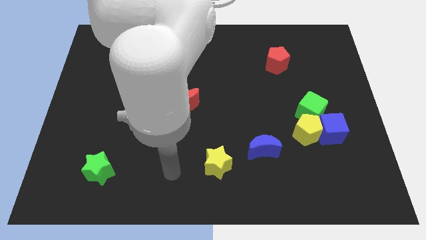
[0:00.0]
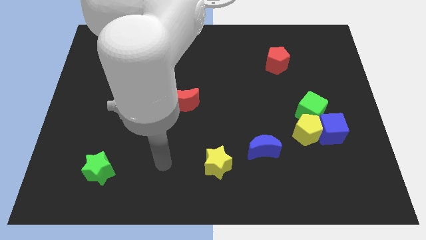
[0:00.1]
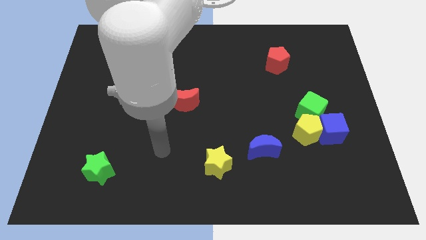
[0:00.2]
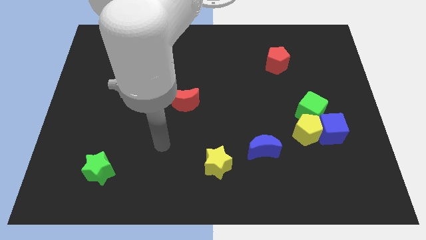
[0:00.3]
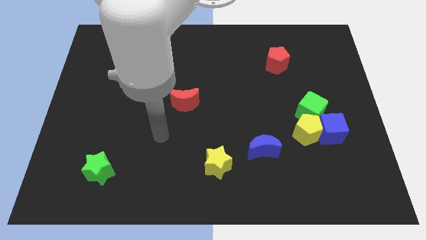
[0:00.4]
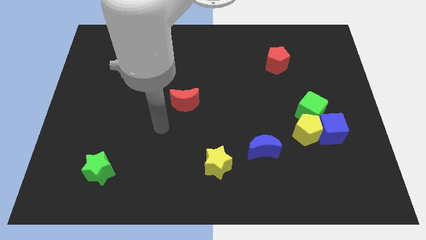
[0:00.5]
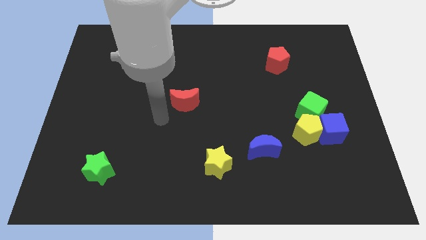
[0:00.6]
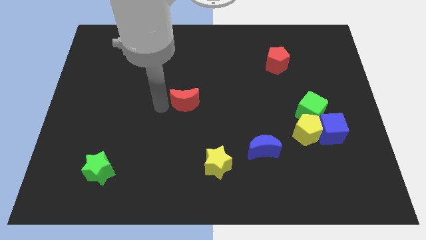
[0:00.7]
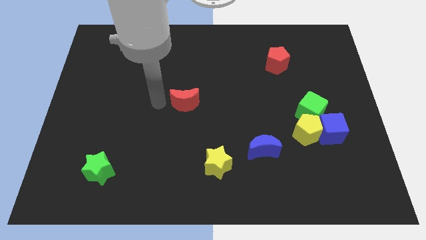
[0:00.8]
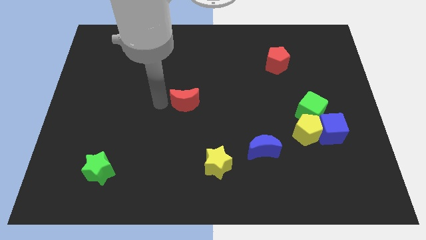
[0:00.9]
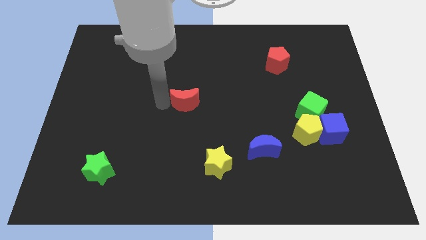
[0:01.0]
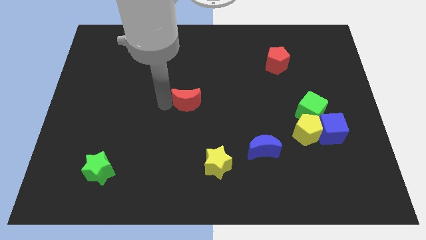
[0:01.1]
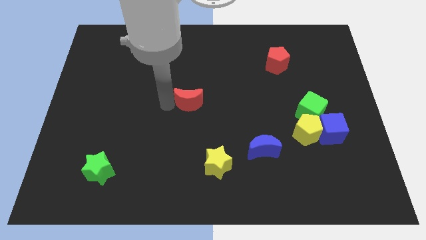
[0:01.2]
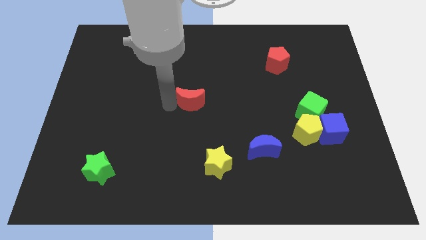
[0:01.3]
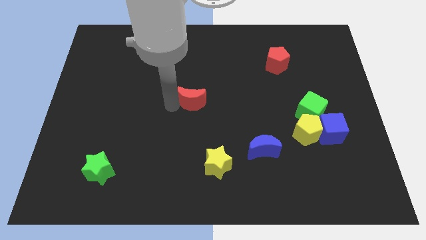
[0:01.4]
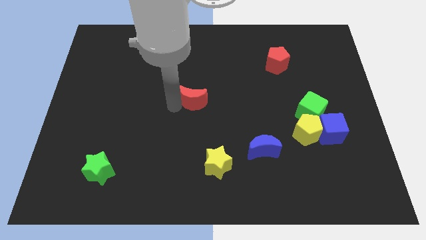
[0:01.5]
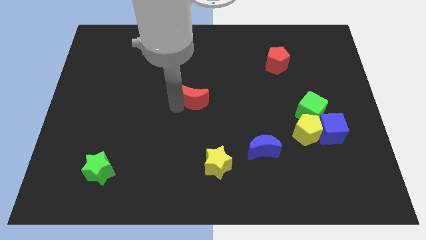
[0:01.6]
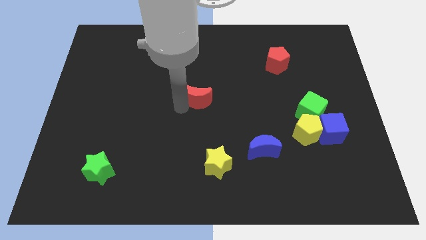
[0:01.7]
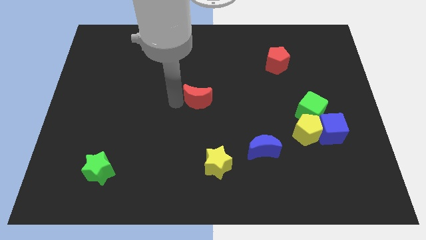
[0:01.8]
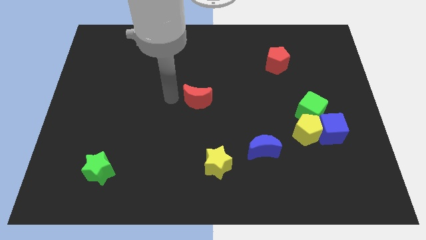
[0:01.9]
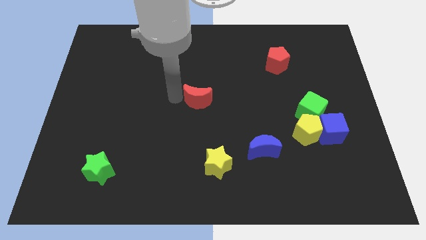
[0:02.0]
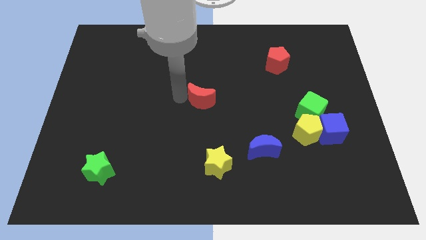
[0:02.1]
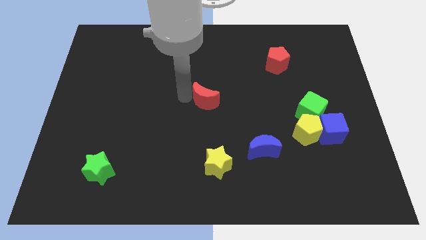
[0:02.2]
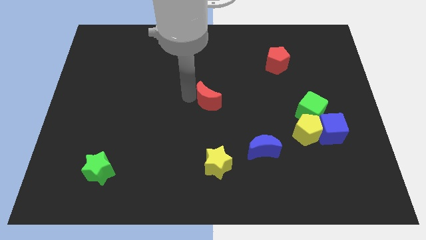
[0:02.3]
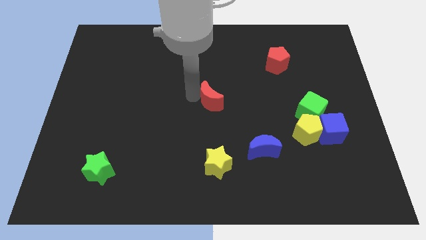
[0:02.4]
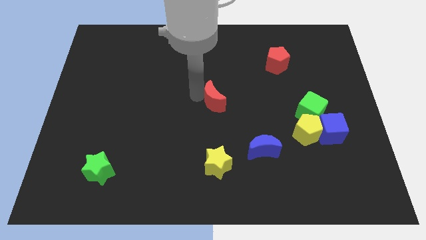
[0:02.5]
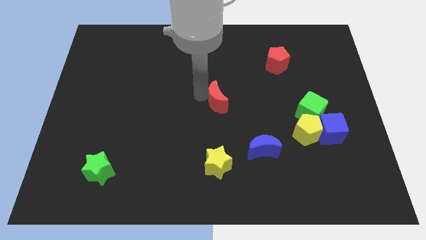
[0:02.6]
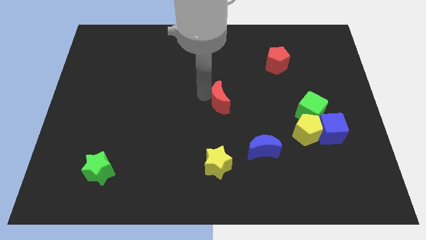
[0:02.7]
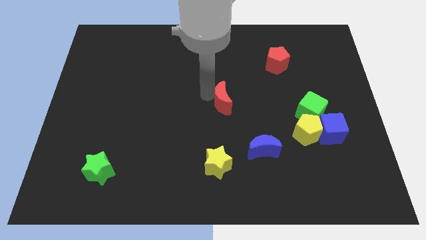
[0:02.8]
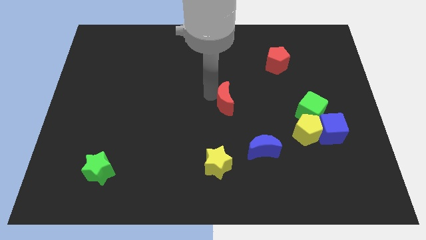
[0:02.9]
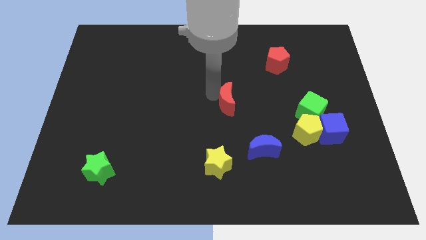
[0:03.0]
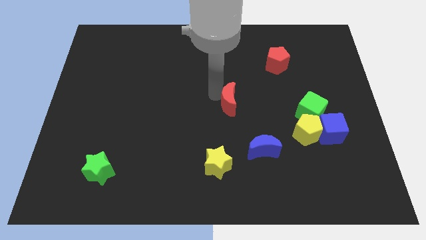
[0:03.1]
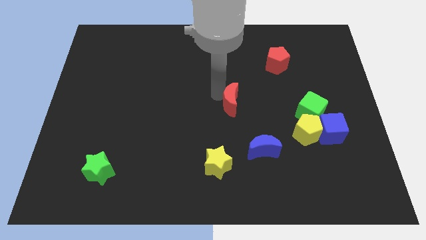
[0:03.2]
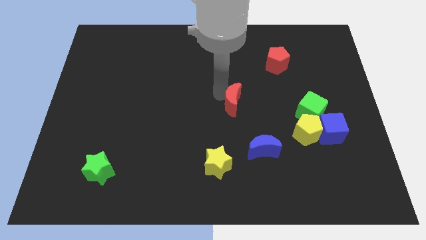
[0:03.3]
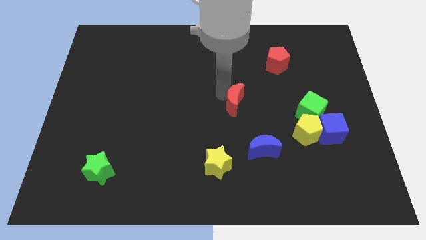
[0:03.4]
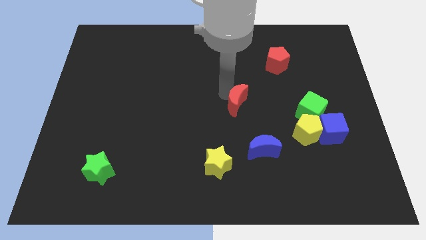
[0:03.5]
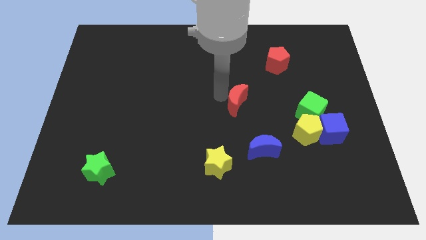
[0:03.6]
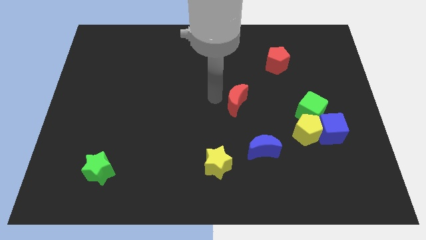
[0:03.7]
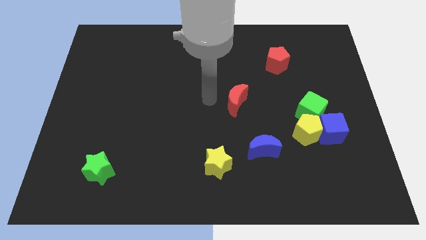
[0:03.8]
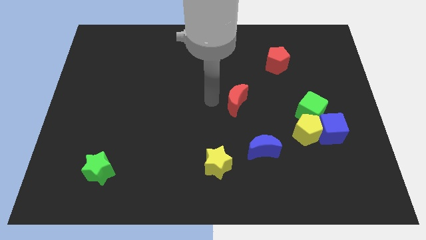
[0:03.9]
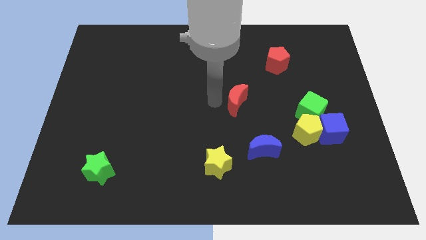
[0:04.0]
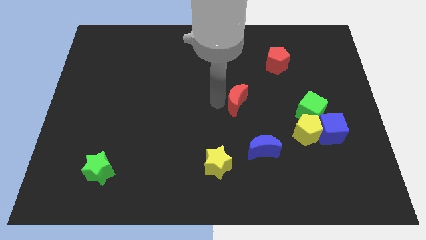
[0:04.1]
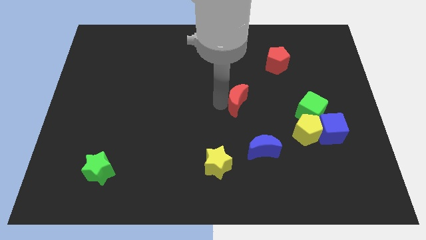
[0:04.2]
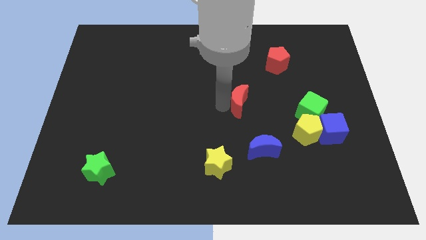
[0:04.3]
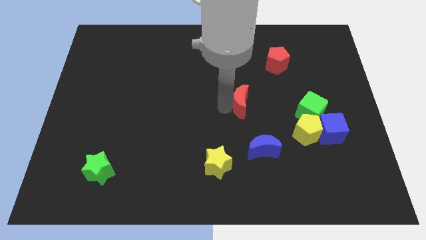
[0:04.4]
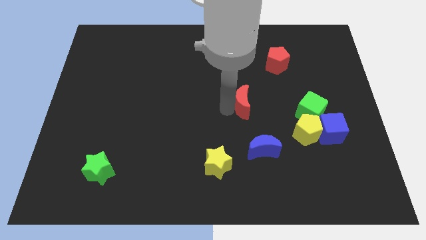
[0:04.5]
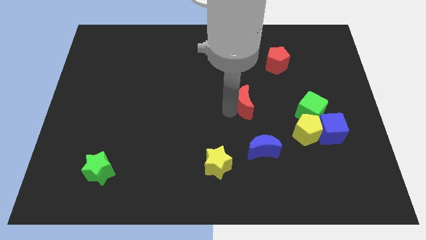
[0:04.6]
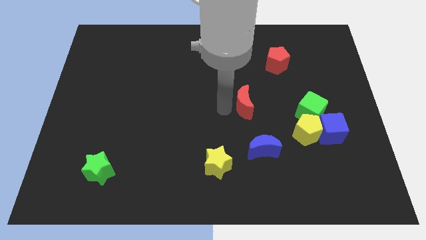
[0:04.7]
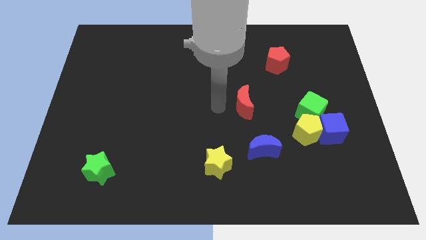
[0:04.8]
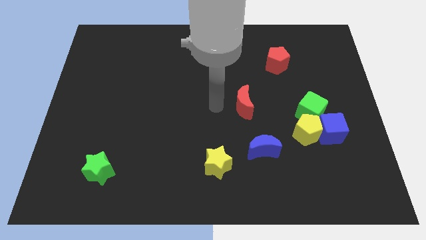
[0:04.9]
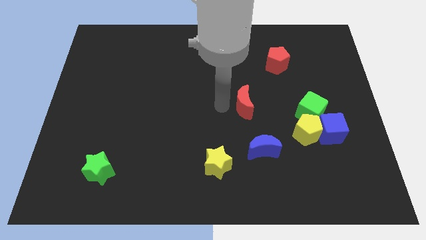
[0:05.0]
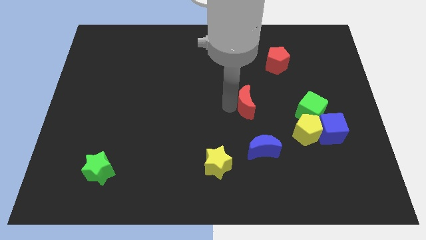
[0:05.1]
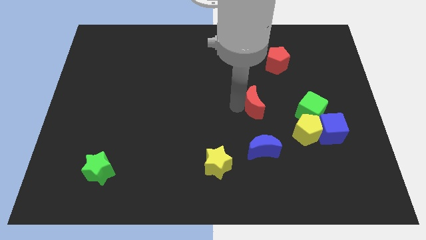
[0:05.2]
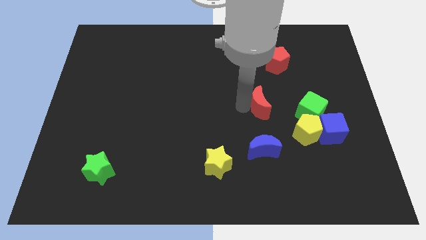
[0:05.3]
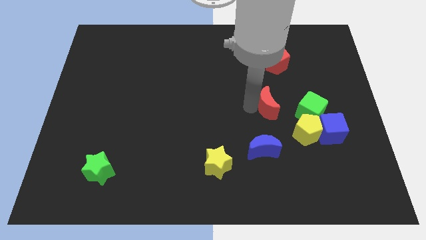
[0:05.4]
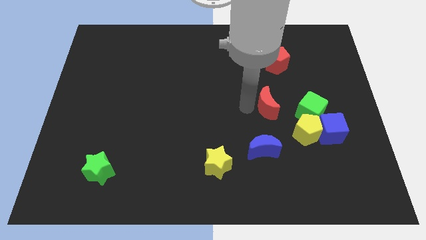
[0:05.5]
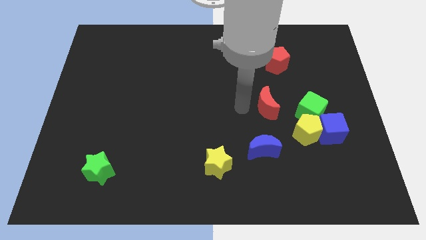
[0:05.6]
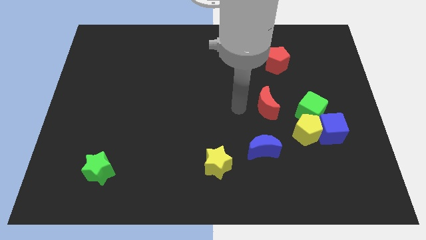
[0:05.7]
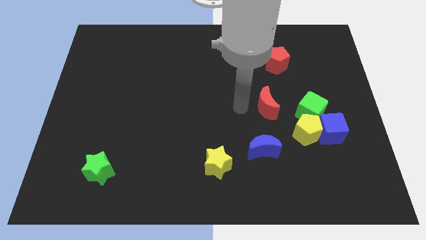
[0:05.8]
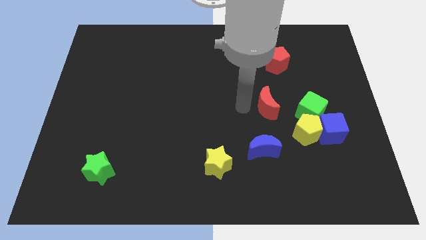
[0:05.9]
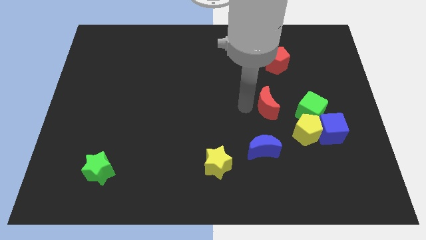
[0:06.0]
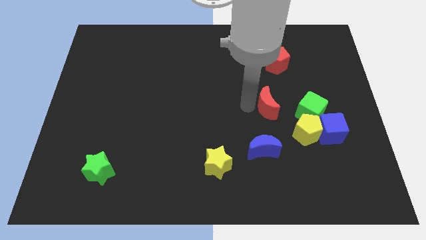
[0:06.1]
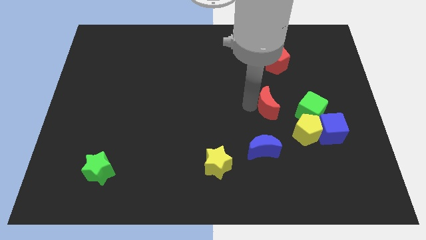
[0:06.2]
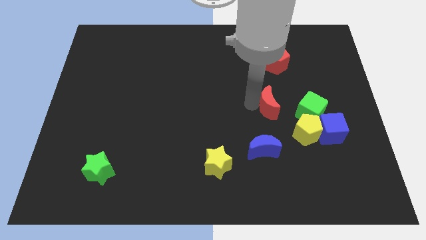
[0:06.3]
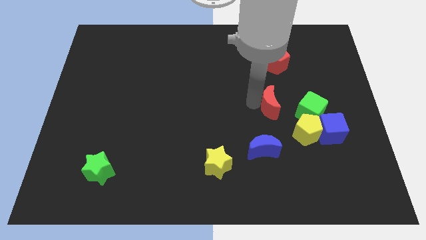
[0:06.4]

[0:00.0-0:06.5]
push the red moon right

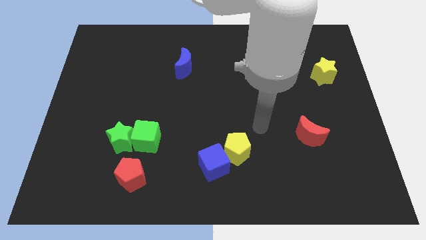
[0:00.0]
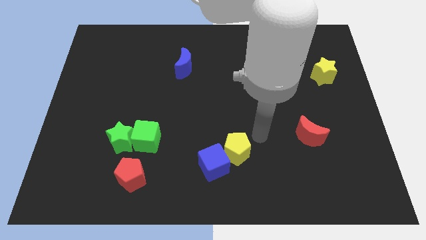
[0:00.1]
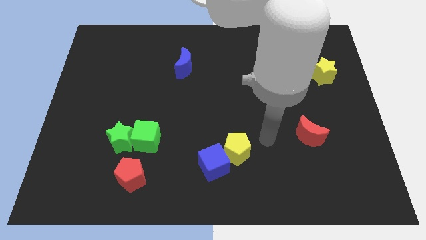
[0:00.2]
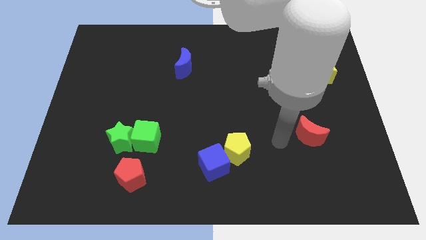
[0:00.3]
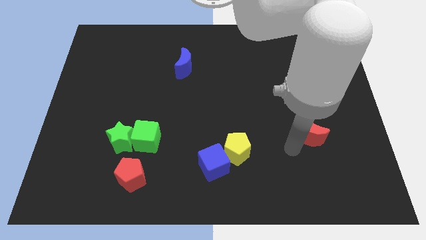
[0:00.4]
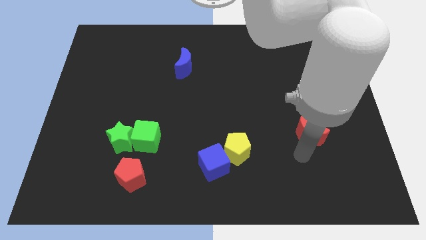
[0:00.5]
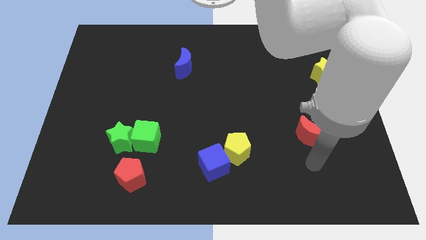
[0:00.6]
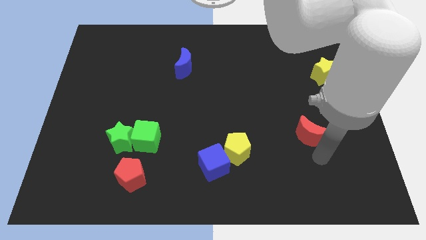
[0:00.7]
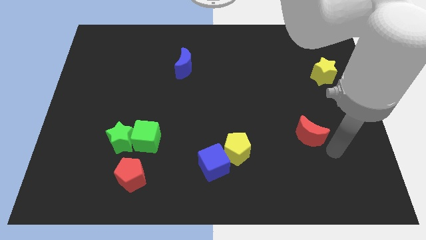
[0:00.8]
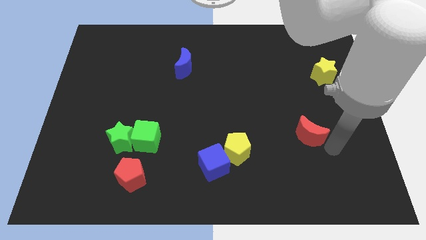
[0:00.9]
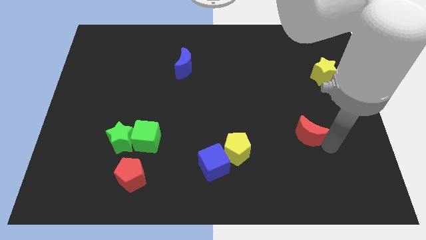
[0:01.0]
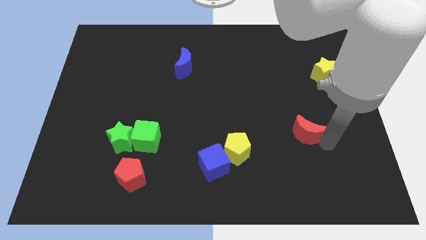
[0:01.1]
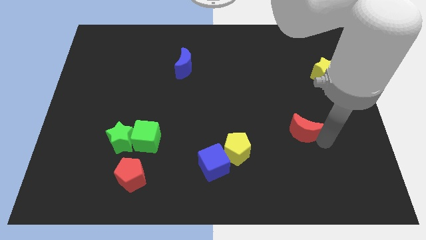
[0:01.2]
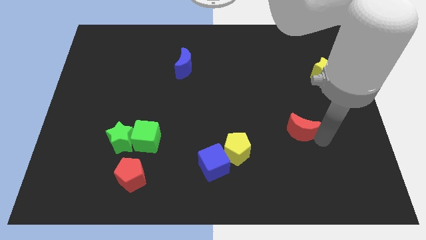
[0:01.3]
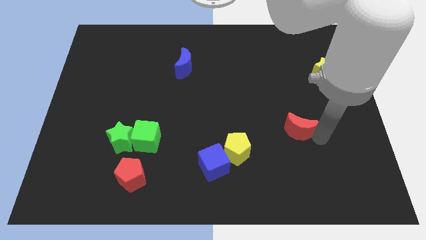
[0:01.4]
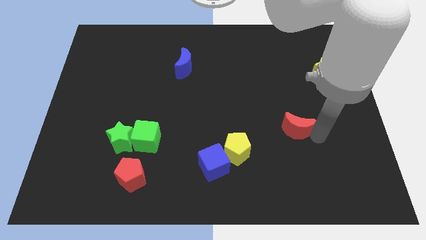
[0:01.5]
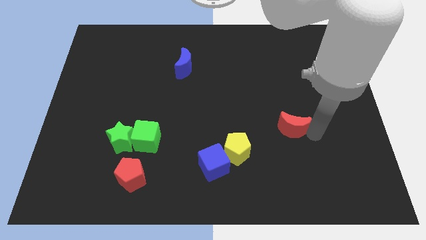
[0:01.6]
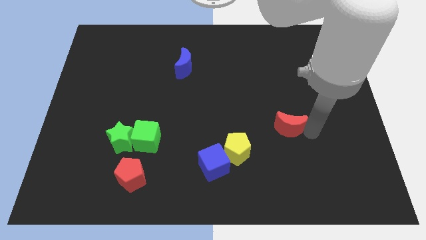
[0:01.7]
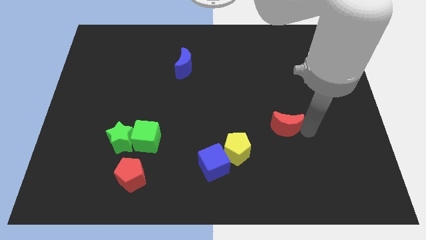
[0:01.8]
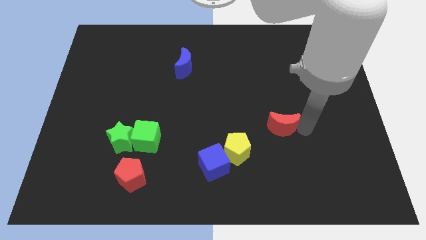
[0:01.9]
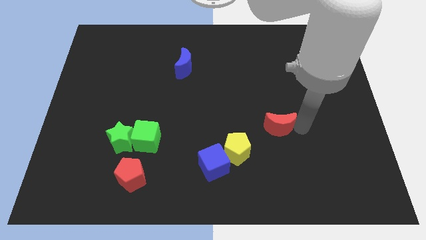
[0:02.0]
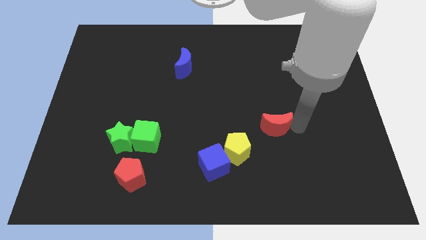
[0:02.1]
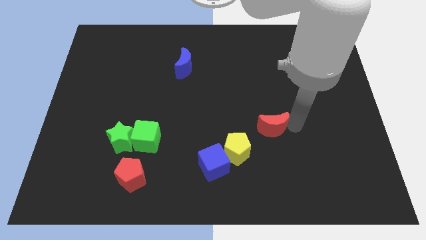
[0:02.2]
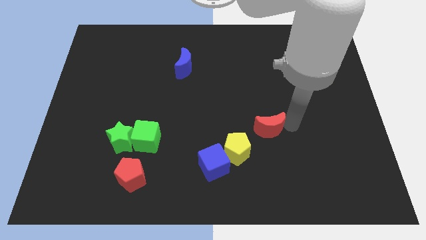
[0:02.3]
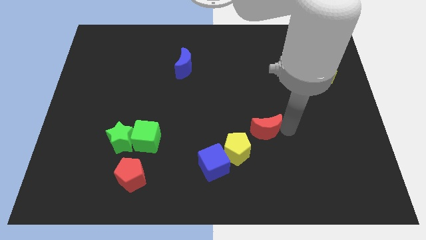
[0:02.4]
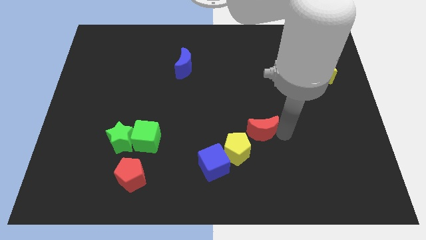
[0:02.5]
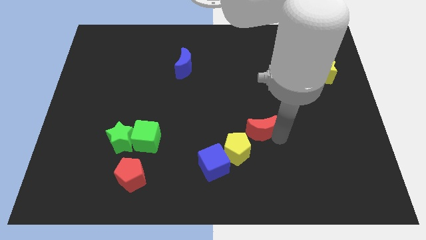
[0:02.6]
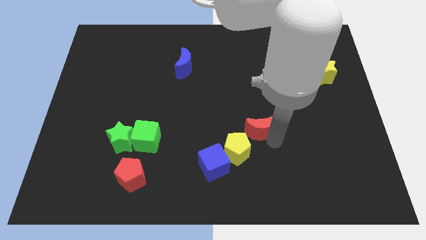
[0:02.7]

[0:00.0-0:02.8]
push the red moon up and then left slightly
